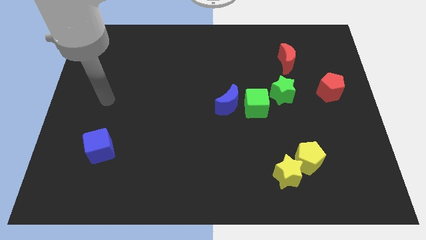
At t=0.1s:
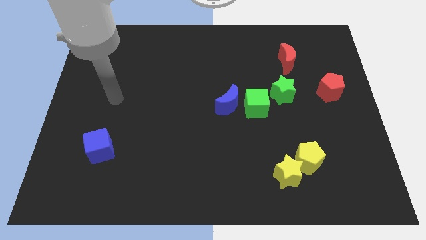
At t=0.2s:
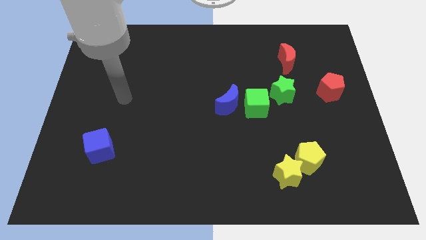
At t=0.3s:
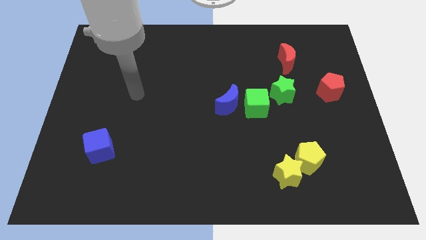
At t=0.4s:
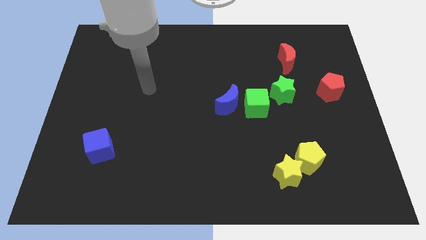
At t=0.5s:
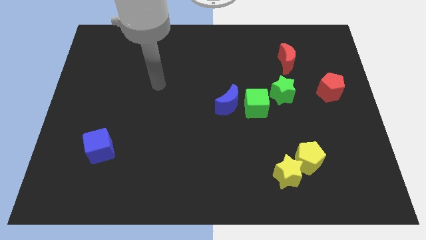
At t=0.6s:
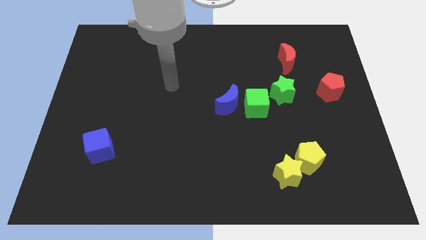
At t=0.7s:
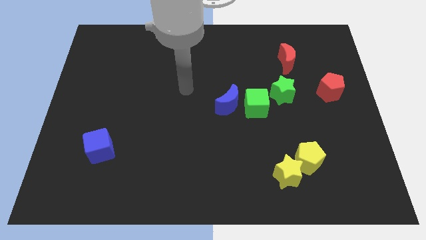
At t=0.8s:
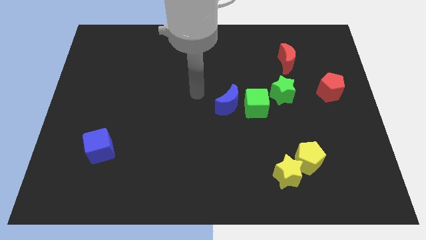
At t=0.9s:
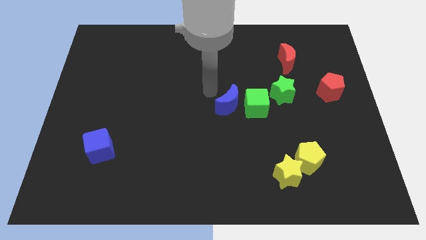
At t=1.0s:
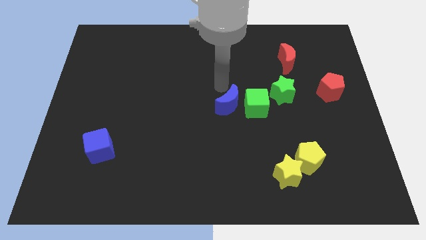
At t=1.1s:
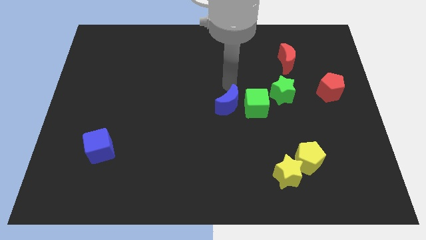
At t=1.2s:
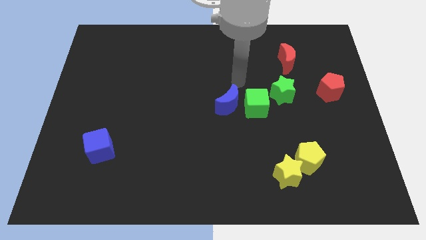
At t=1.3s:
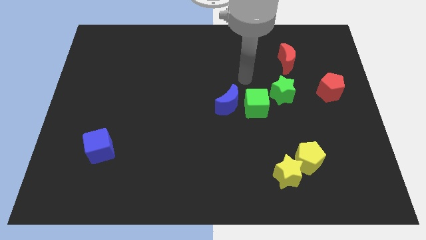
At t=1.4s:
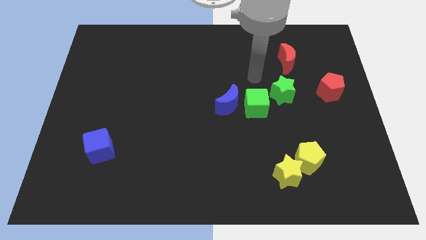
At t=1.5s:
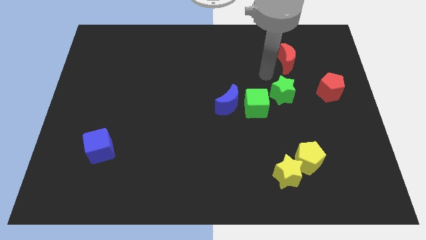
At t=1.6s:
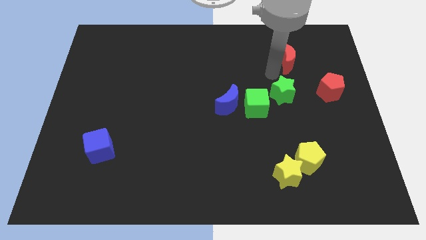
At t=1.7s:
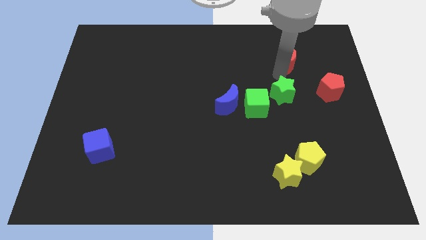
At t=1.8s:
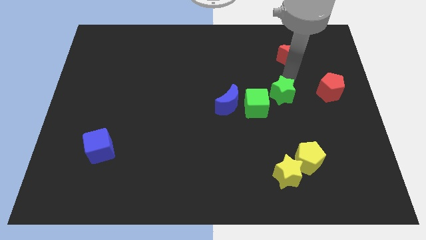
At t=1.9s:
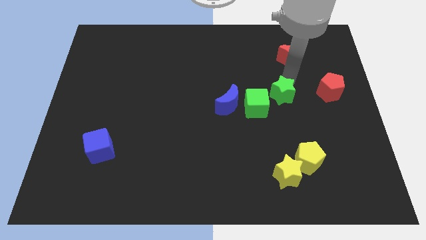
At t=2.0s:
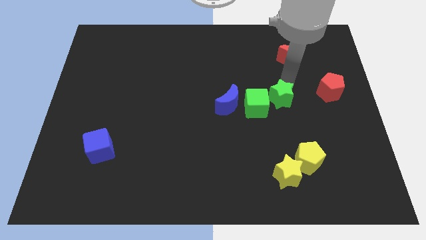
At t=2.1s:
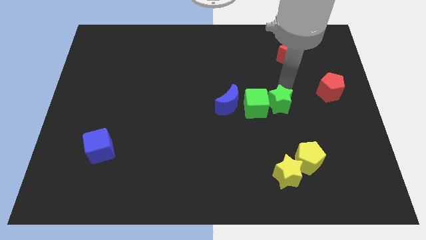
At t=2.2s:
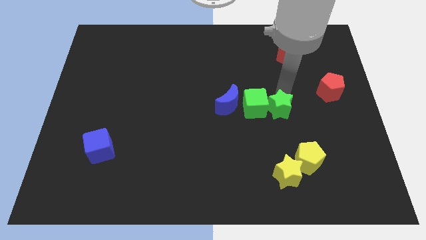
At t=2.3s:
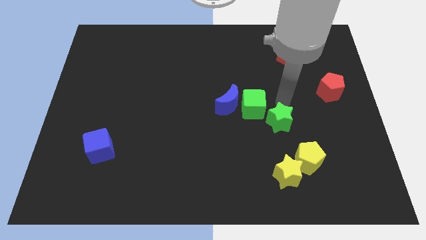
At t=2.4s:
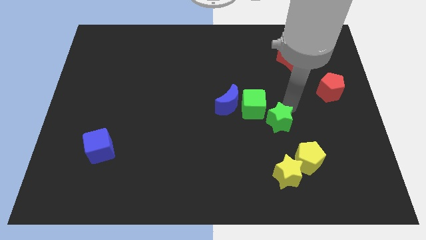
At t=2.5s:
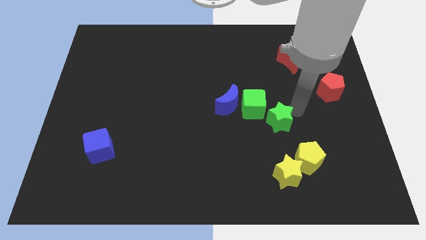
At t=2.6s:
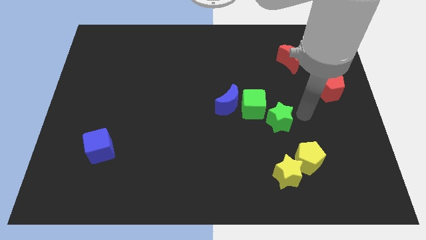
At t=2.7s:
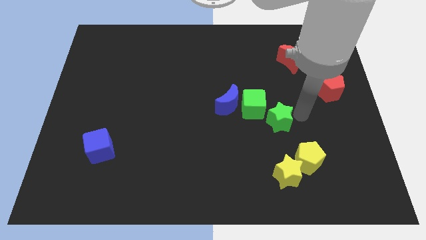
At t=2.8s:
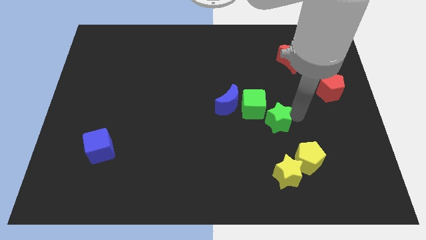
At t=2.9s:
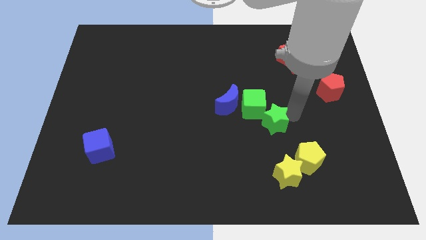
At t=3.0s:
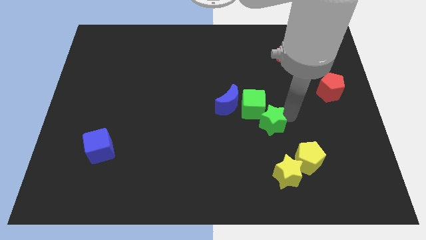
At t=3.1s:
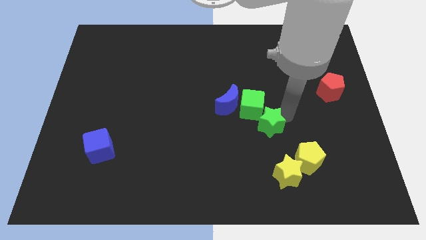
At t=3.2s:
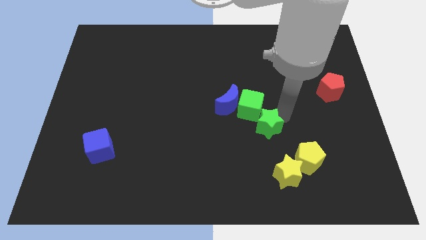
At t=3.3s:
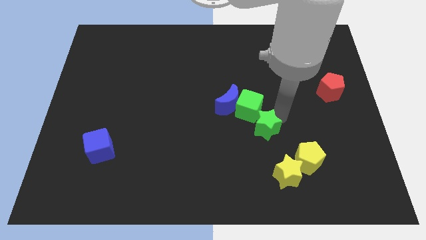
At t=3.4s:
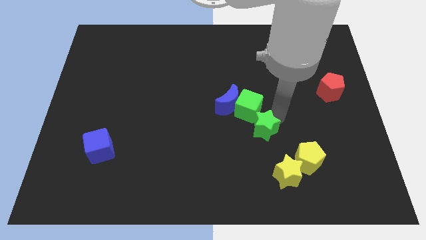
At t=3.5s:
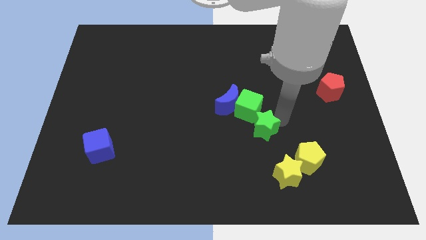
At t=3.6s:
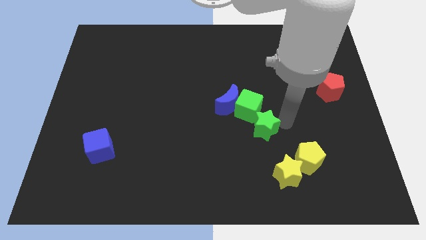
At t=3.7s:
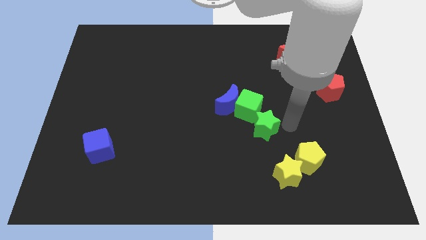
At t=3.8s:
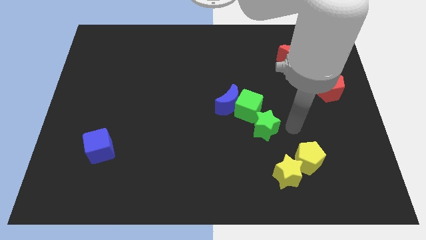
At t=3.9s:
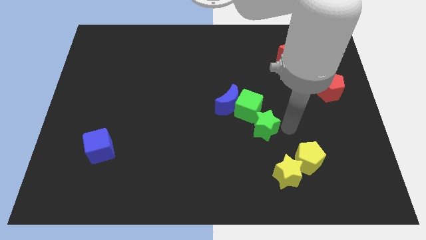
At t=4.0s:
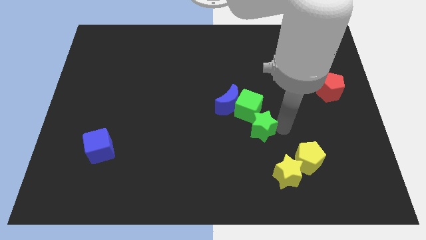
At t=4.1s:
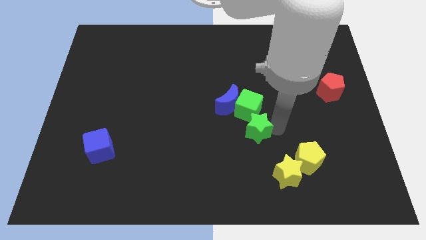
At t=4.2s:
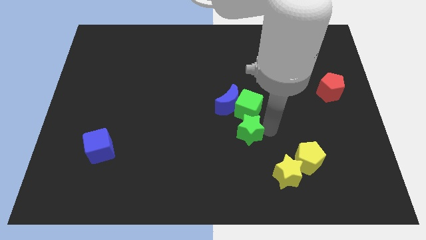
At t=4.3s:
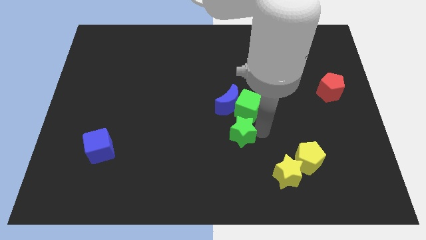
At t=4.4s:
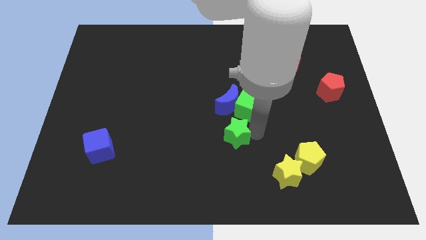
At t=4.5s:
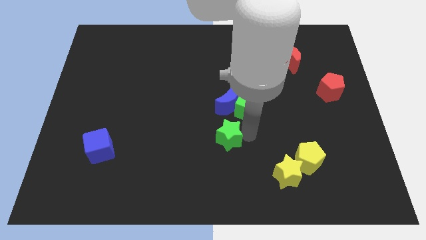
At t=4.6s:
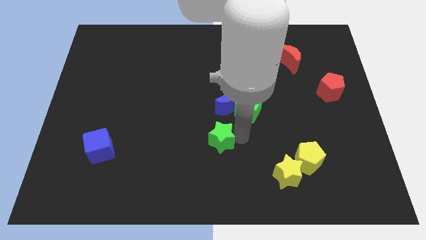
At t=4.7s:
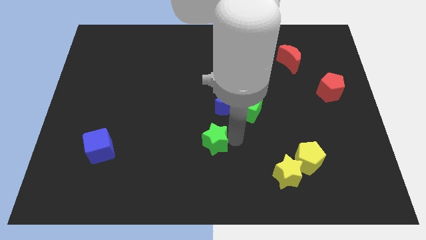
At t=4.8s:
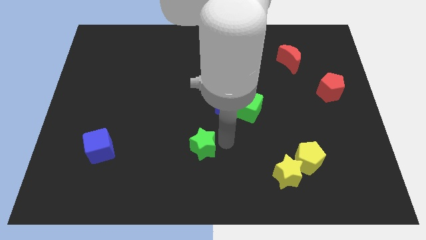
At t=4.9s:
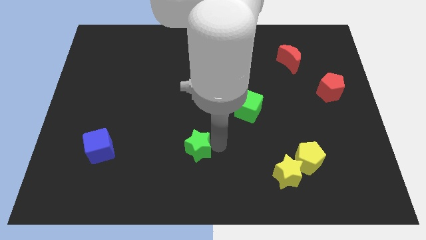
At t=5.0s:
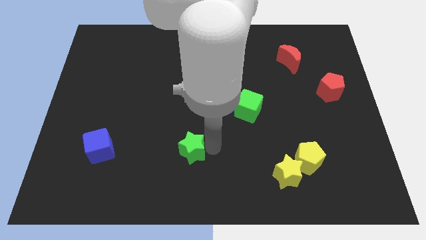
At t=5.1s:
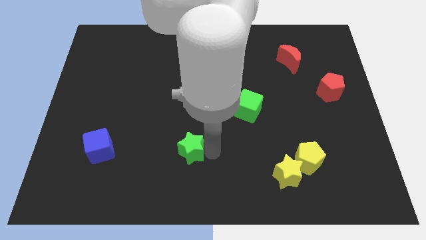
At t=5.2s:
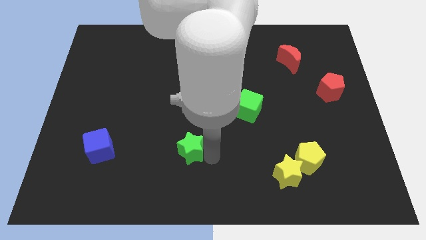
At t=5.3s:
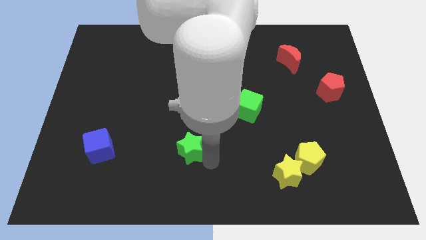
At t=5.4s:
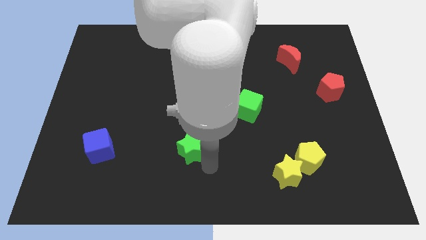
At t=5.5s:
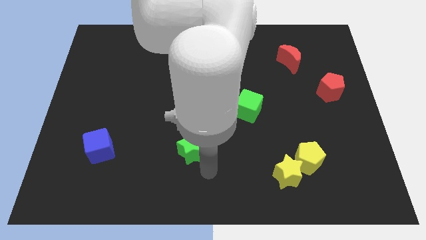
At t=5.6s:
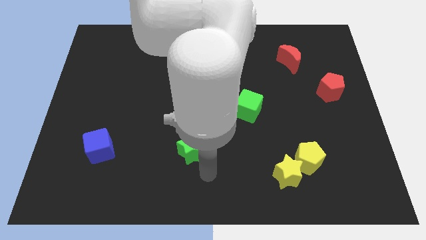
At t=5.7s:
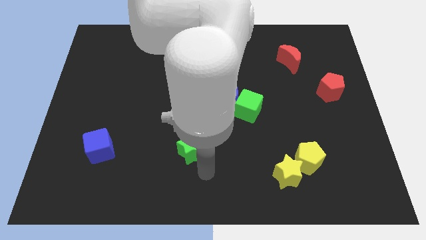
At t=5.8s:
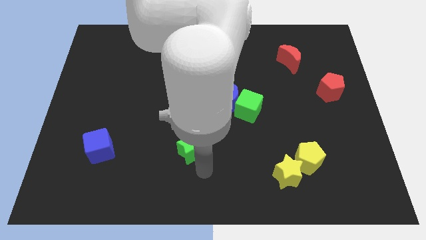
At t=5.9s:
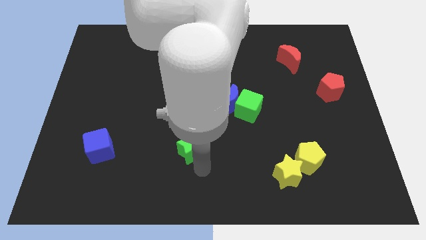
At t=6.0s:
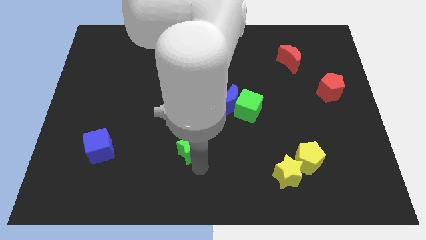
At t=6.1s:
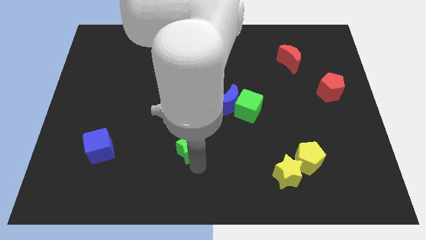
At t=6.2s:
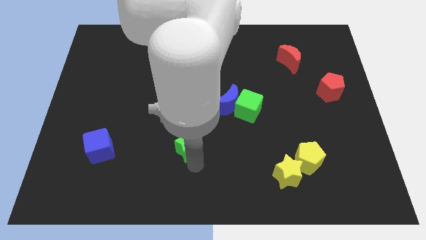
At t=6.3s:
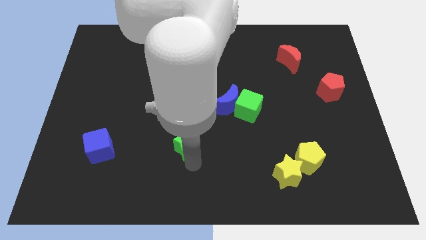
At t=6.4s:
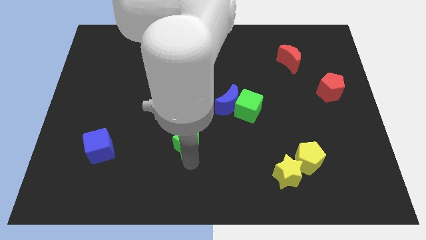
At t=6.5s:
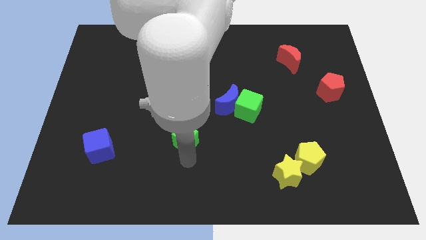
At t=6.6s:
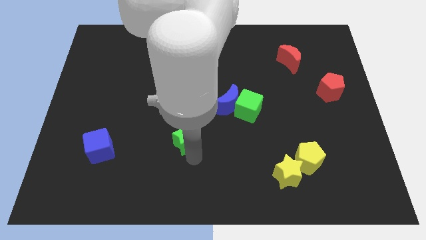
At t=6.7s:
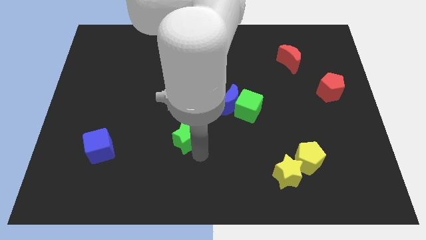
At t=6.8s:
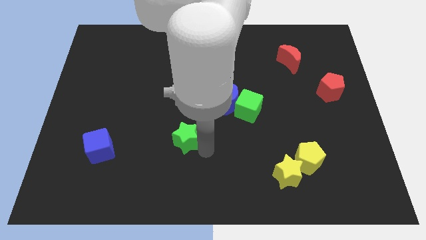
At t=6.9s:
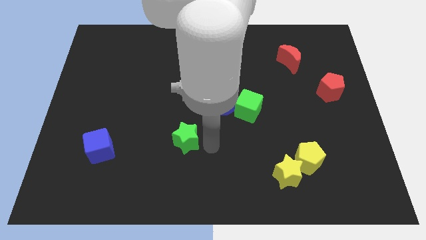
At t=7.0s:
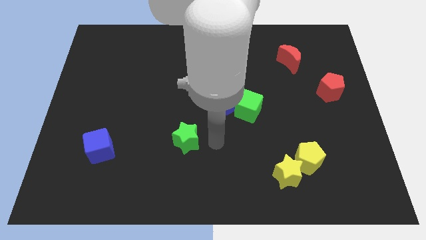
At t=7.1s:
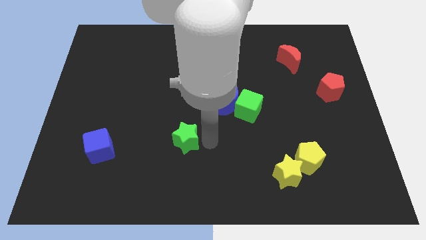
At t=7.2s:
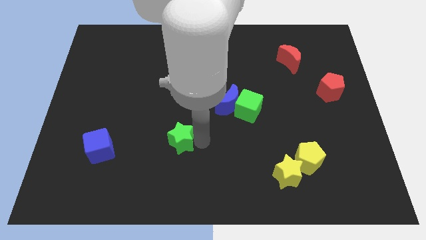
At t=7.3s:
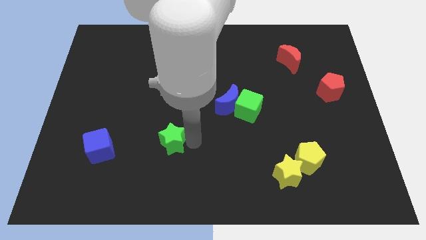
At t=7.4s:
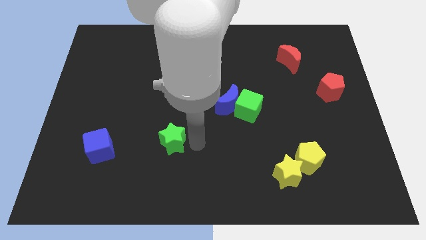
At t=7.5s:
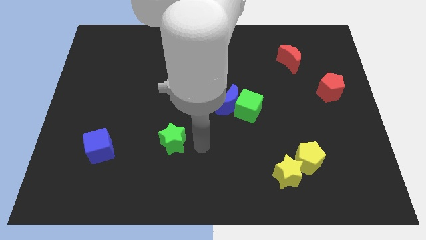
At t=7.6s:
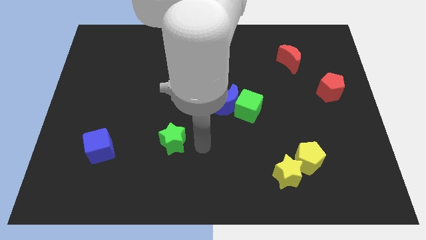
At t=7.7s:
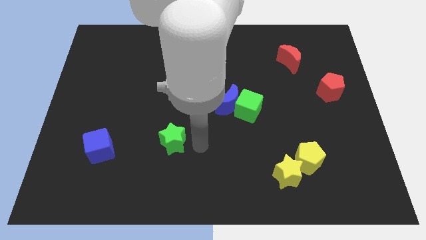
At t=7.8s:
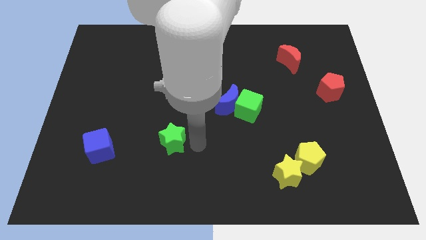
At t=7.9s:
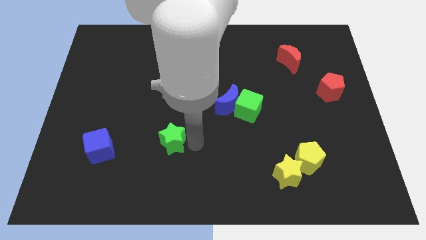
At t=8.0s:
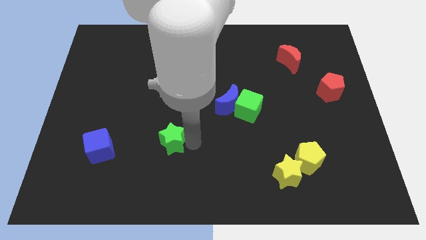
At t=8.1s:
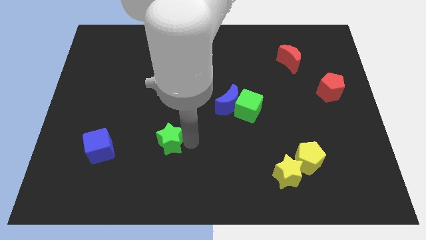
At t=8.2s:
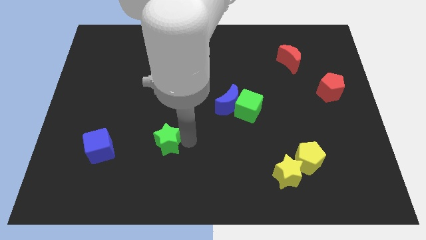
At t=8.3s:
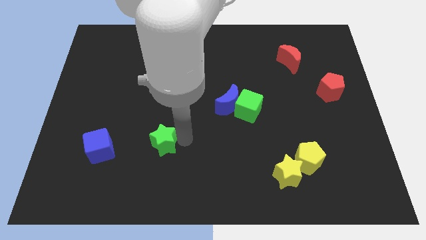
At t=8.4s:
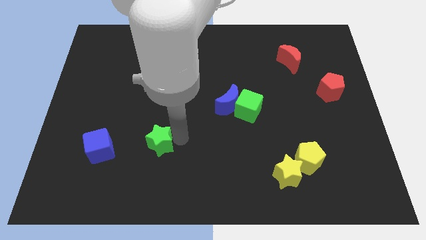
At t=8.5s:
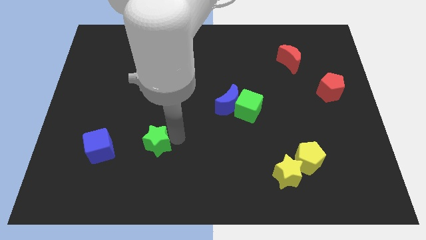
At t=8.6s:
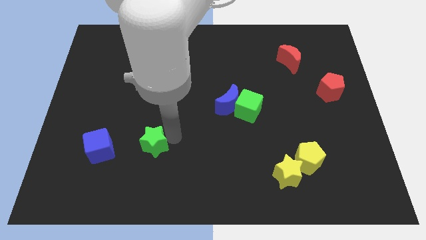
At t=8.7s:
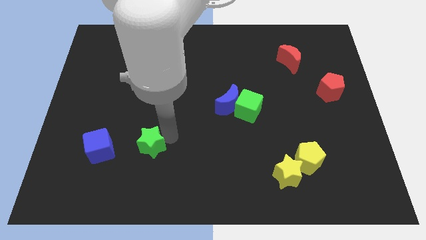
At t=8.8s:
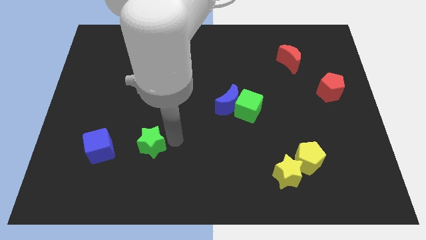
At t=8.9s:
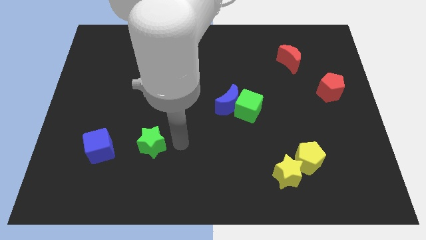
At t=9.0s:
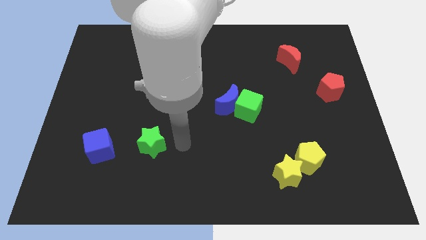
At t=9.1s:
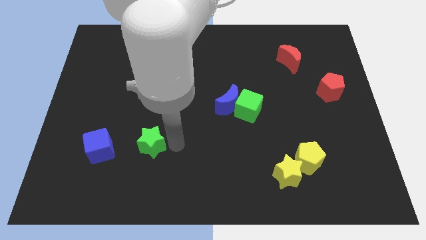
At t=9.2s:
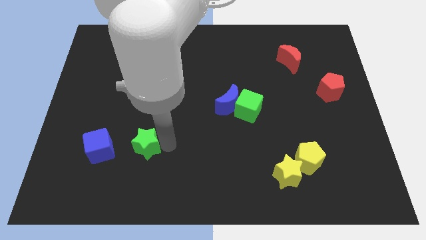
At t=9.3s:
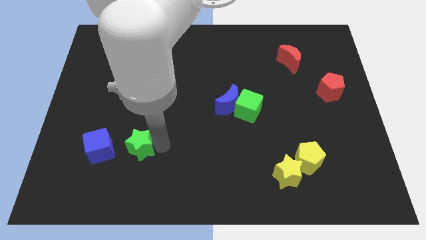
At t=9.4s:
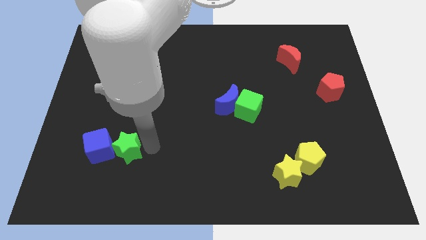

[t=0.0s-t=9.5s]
put the green star towards the blue cube
